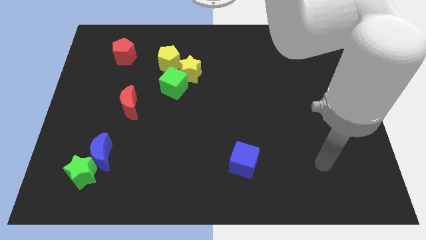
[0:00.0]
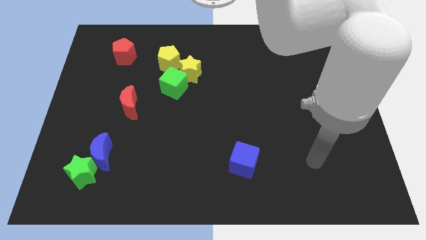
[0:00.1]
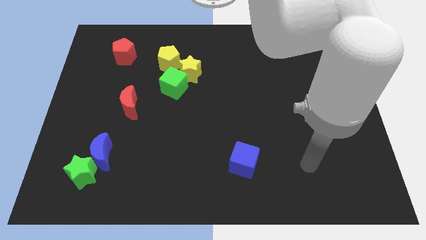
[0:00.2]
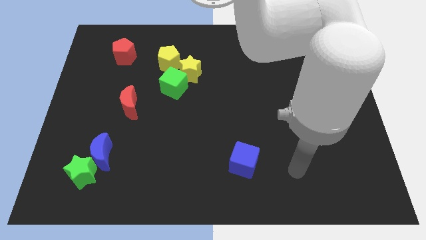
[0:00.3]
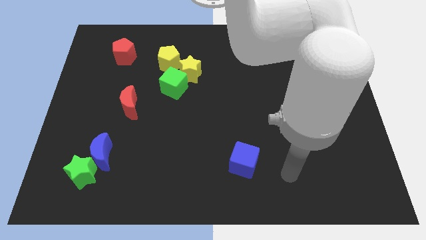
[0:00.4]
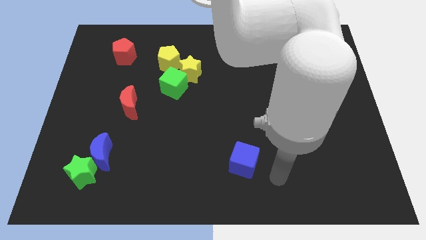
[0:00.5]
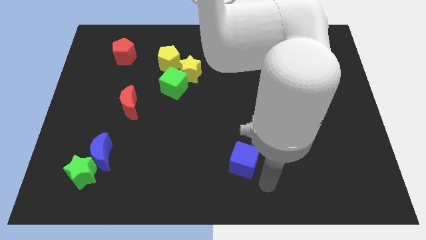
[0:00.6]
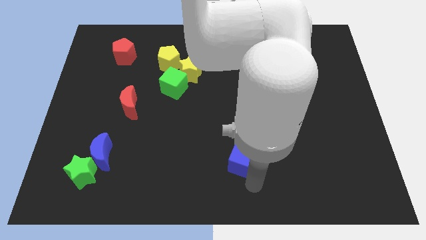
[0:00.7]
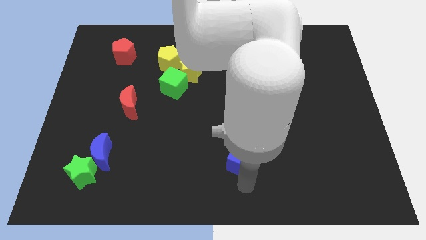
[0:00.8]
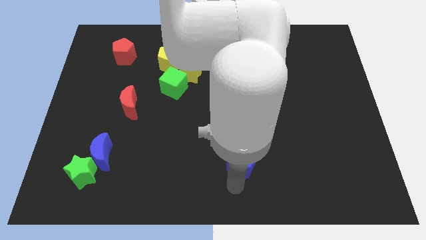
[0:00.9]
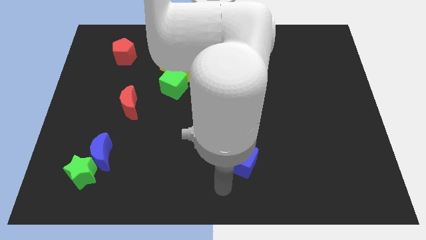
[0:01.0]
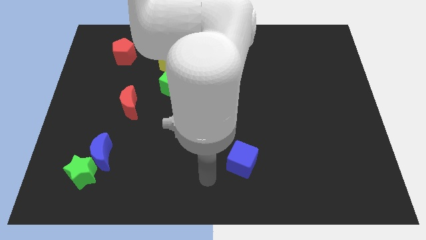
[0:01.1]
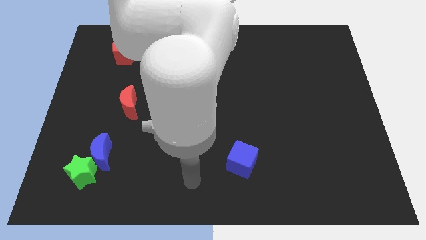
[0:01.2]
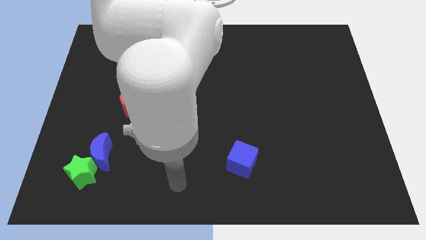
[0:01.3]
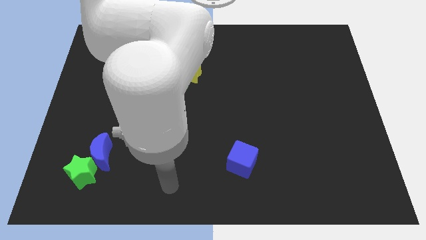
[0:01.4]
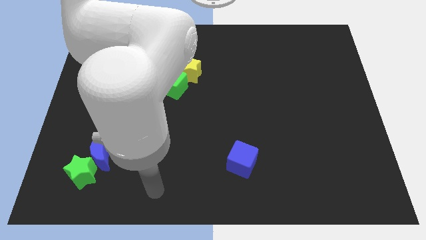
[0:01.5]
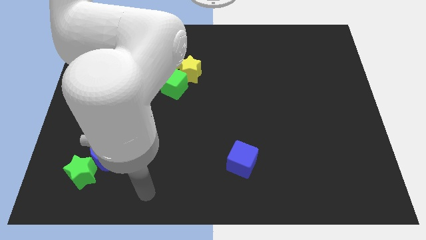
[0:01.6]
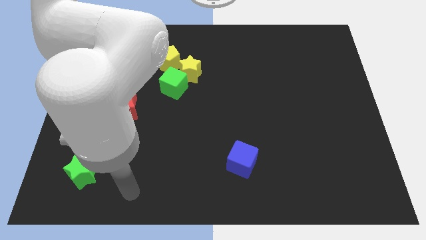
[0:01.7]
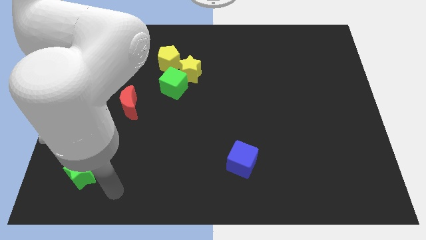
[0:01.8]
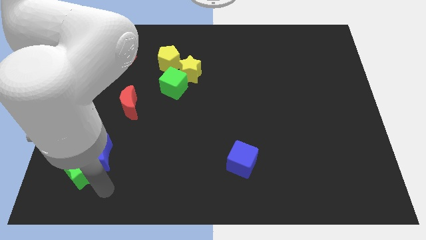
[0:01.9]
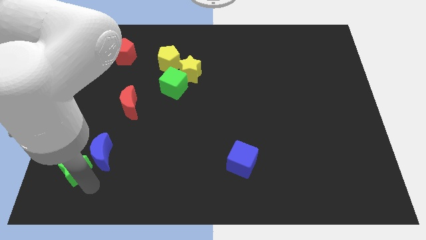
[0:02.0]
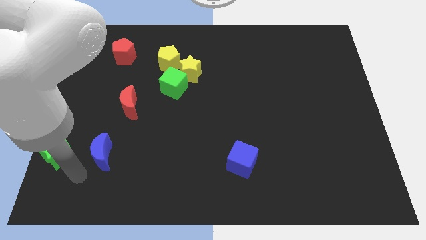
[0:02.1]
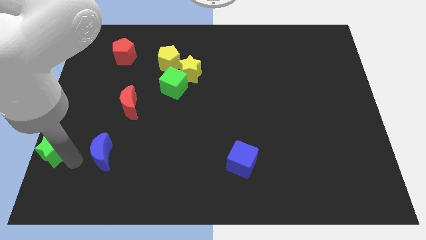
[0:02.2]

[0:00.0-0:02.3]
separate the blue moon from the green star

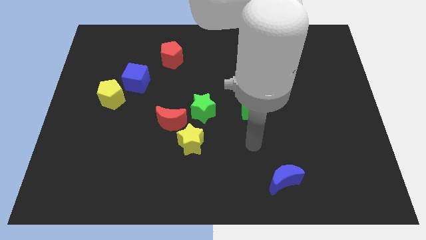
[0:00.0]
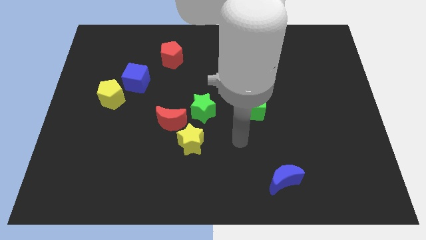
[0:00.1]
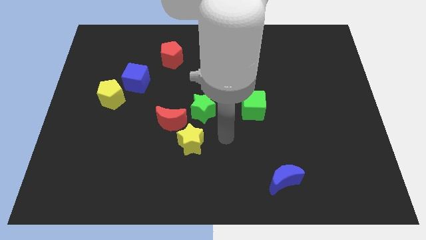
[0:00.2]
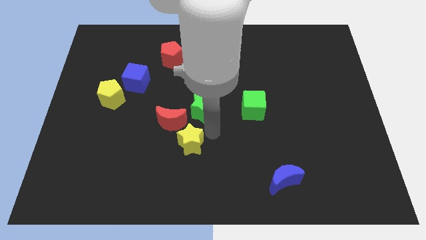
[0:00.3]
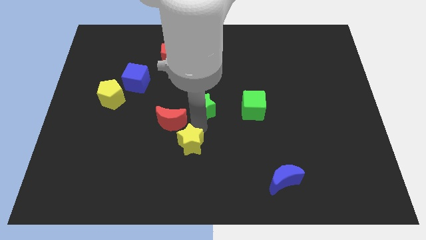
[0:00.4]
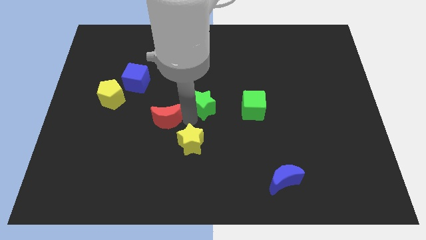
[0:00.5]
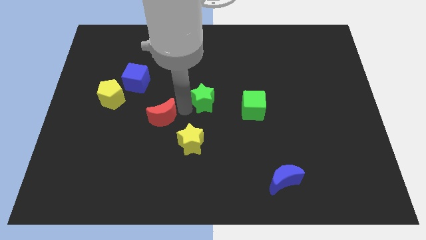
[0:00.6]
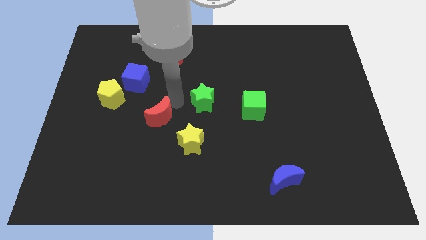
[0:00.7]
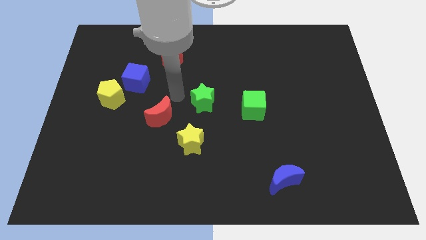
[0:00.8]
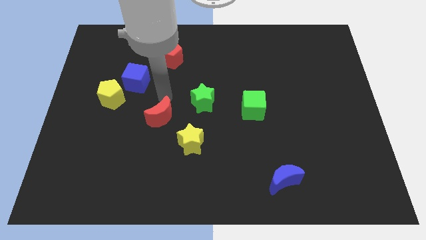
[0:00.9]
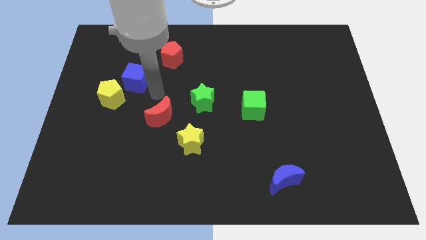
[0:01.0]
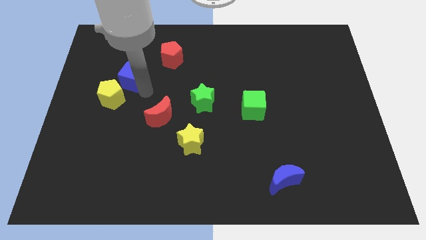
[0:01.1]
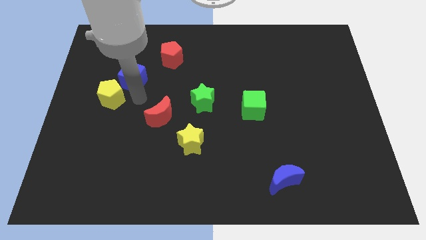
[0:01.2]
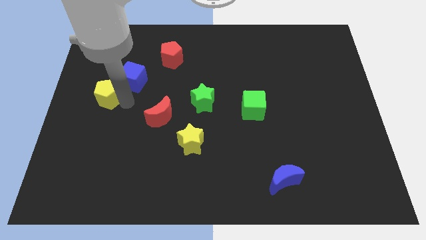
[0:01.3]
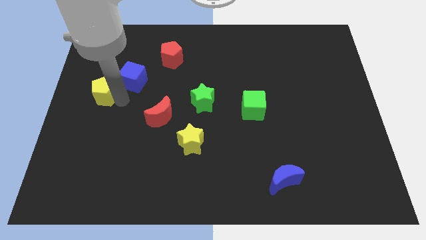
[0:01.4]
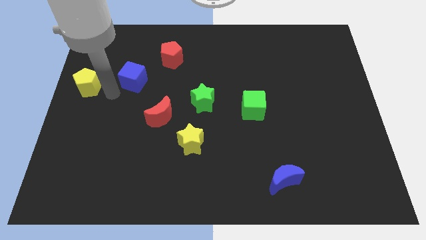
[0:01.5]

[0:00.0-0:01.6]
move the blue cube away from the yellow pentagon

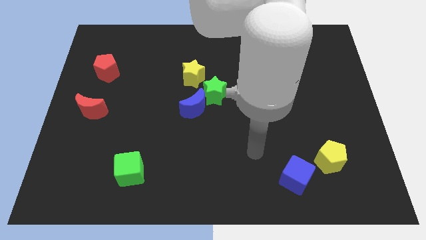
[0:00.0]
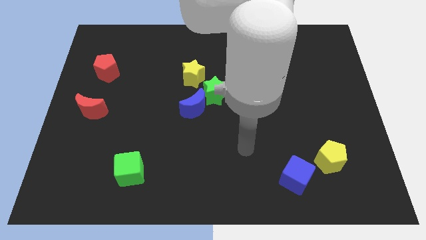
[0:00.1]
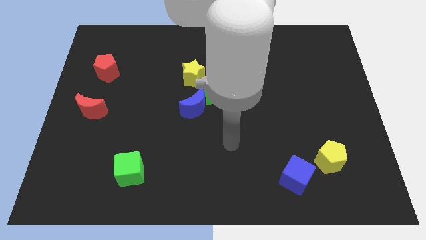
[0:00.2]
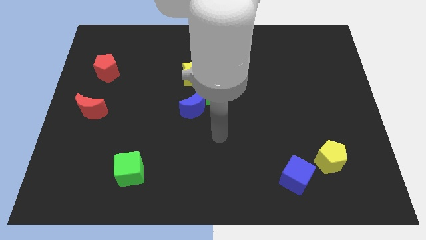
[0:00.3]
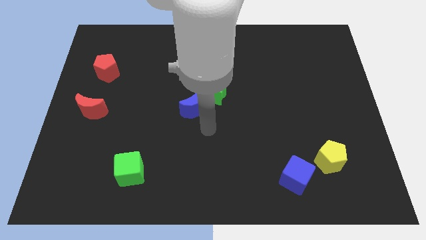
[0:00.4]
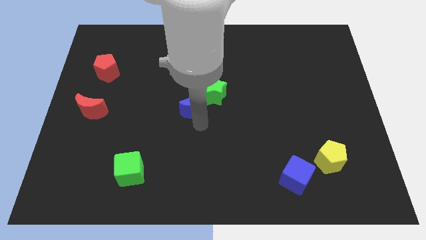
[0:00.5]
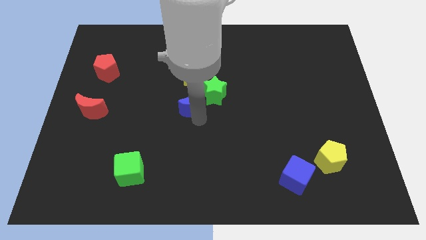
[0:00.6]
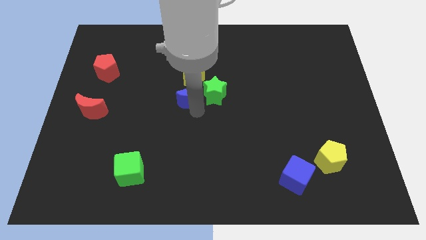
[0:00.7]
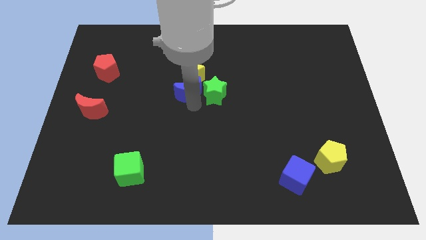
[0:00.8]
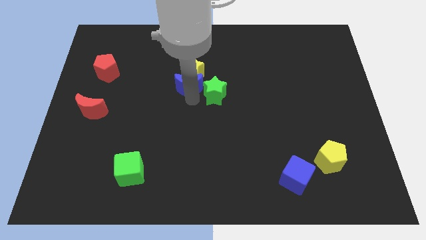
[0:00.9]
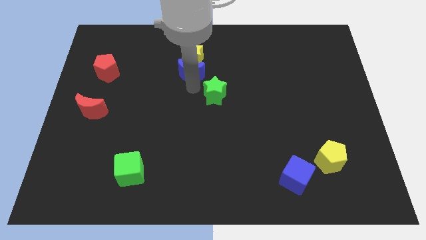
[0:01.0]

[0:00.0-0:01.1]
separate the green star from the blue moon and yellow star

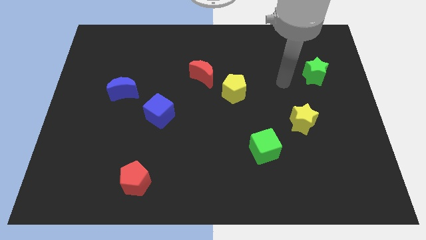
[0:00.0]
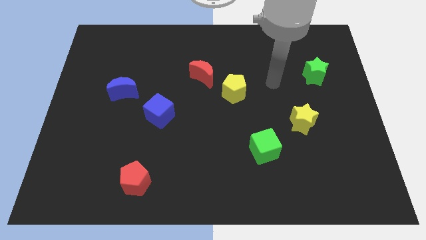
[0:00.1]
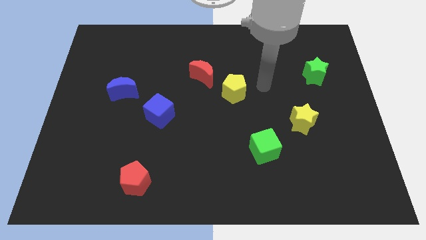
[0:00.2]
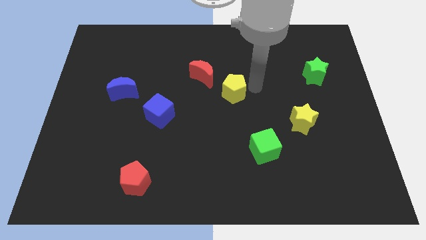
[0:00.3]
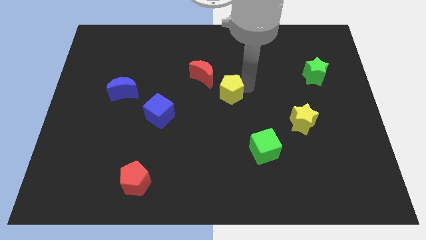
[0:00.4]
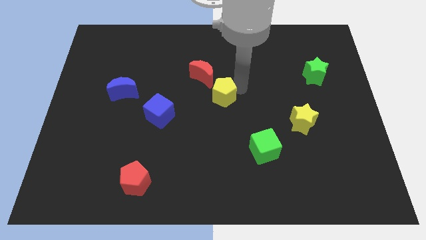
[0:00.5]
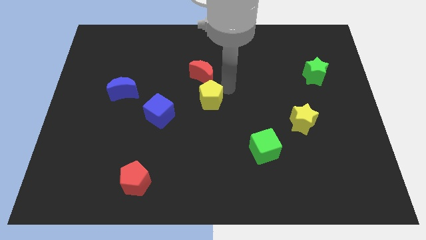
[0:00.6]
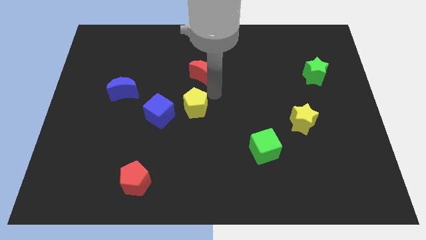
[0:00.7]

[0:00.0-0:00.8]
move the red moon away from the yellow pentagon

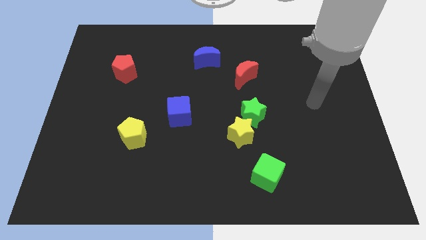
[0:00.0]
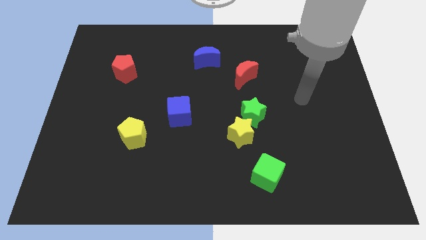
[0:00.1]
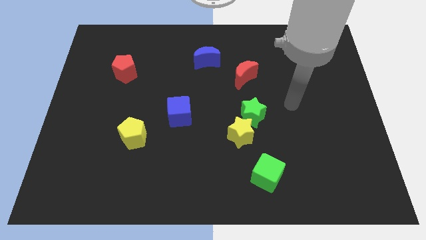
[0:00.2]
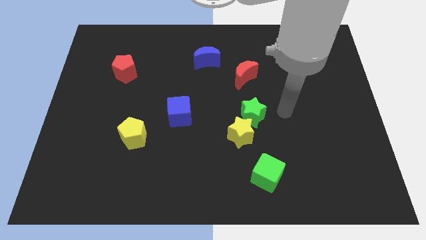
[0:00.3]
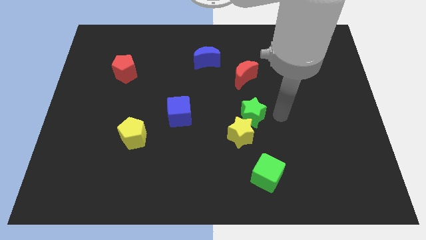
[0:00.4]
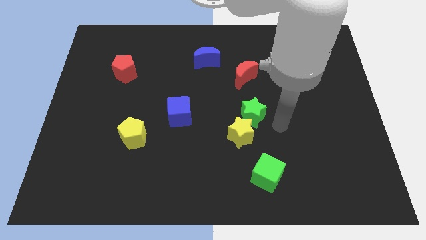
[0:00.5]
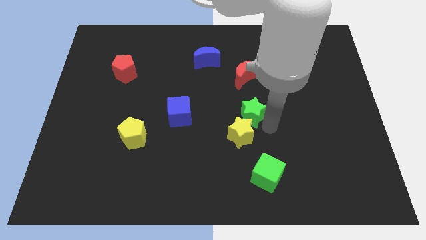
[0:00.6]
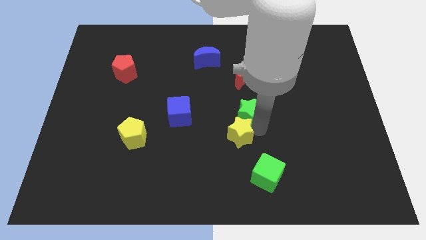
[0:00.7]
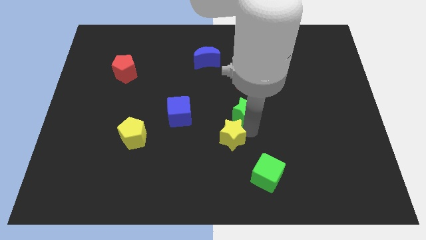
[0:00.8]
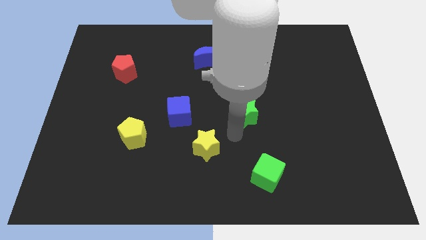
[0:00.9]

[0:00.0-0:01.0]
separate the green star from the yellow star

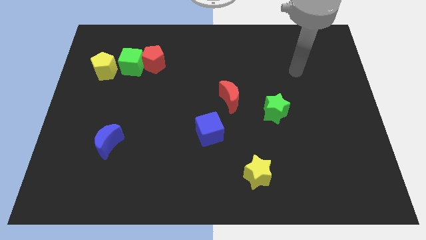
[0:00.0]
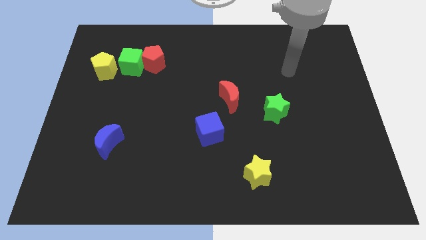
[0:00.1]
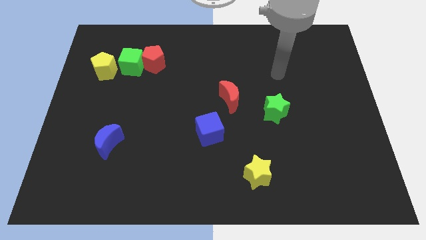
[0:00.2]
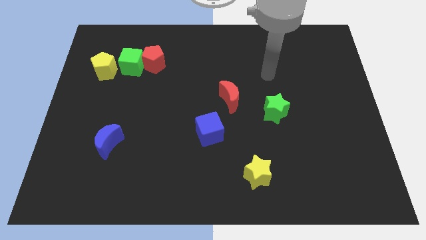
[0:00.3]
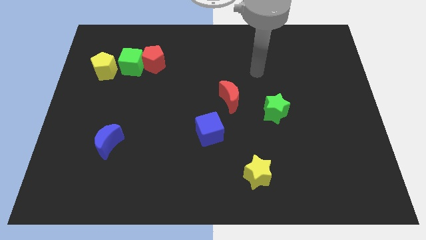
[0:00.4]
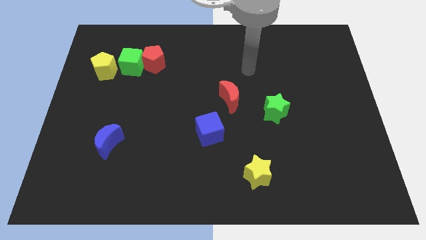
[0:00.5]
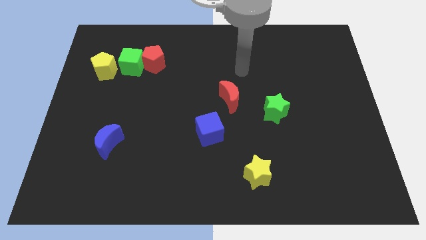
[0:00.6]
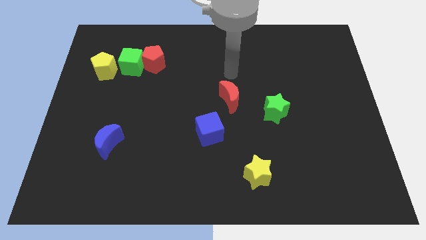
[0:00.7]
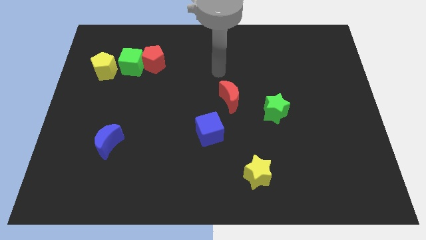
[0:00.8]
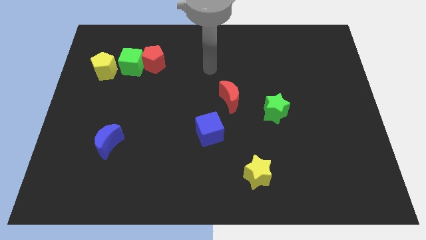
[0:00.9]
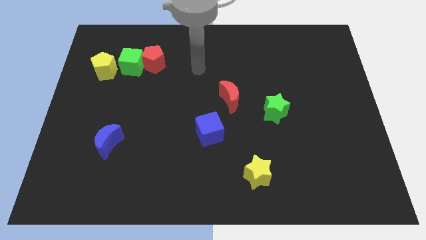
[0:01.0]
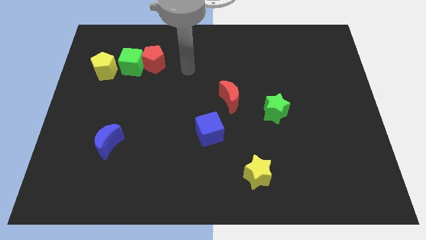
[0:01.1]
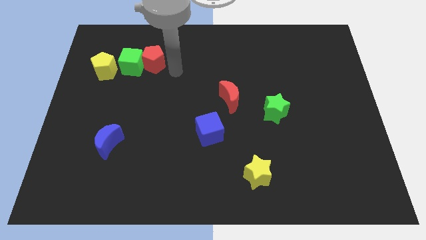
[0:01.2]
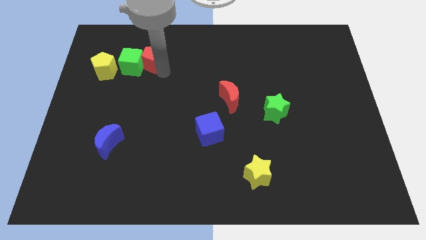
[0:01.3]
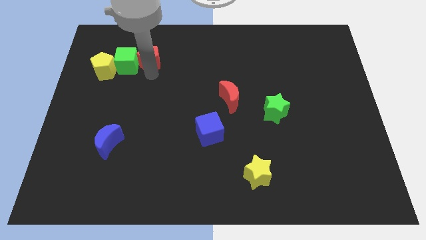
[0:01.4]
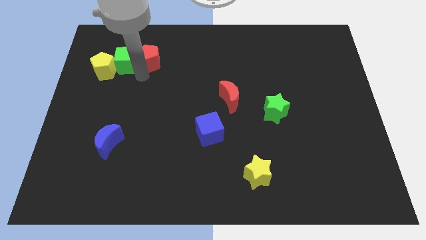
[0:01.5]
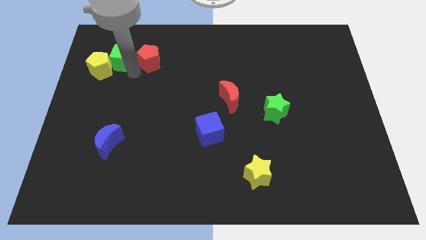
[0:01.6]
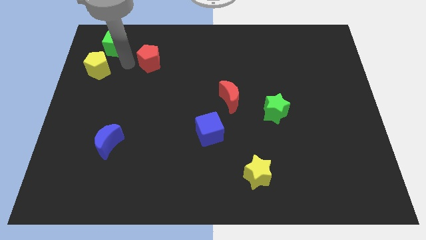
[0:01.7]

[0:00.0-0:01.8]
move the red pentagon away from the green cube

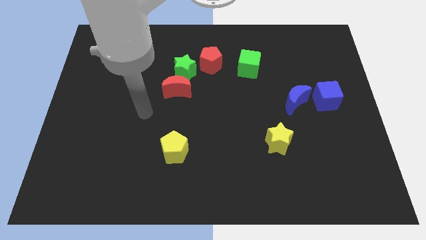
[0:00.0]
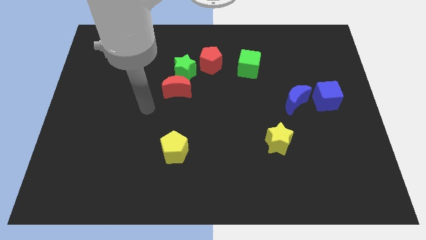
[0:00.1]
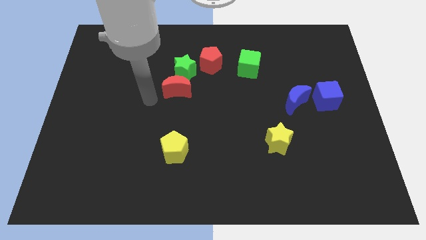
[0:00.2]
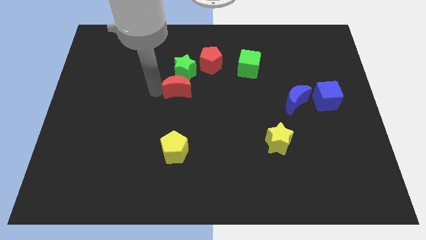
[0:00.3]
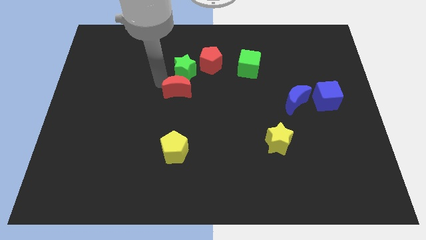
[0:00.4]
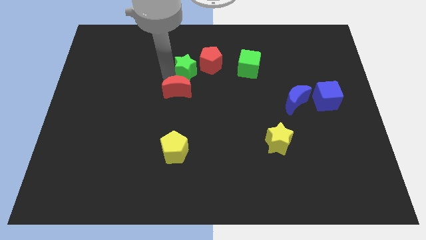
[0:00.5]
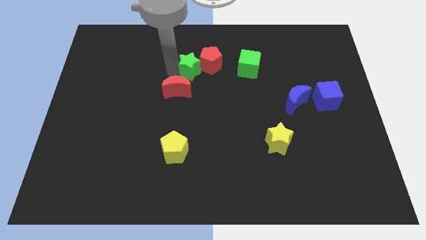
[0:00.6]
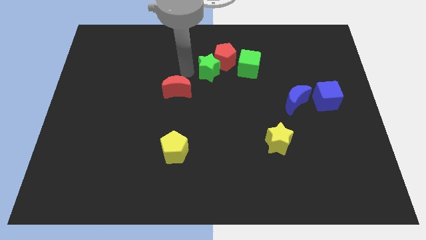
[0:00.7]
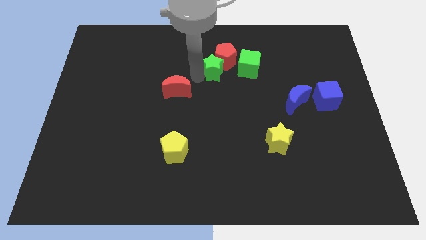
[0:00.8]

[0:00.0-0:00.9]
separate the red moon from the green star
